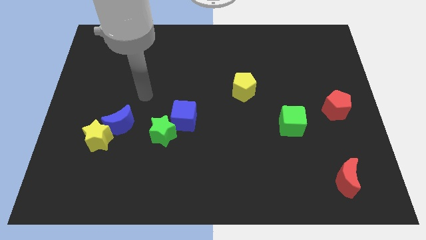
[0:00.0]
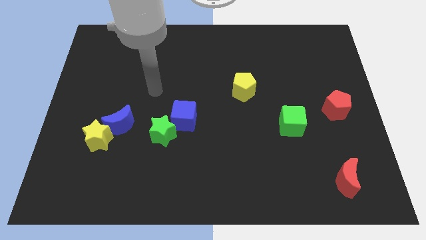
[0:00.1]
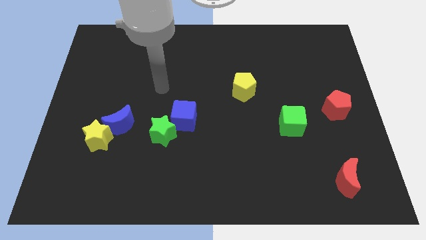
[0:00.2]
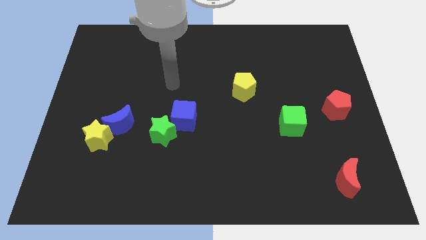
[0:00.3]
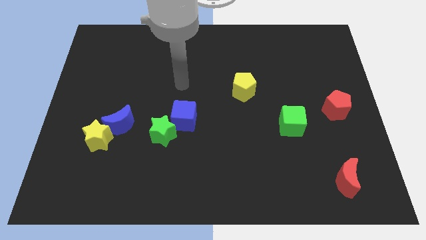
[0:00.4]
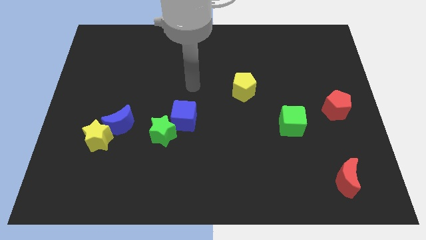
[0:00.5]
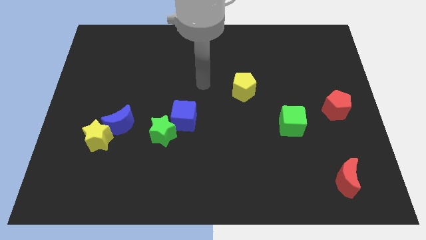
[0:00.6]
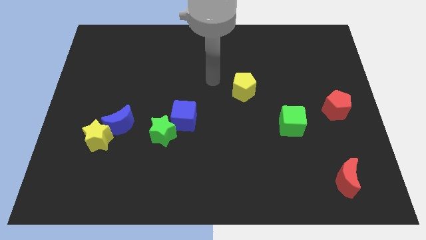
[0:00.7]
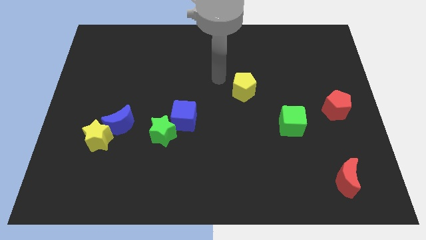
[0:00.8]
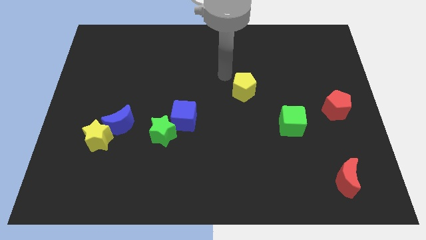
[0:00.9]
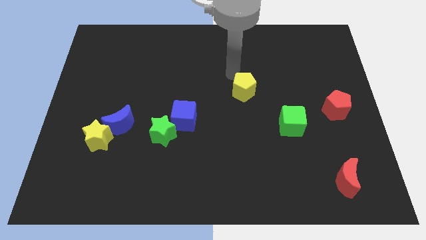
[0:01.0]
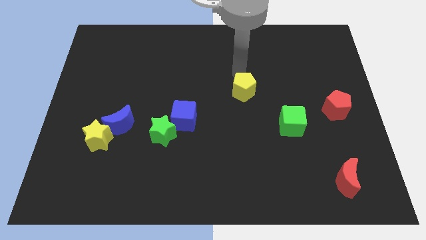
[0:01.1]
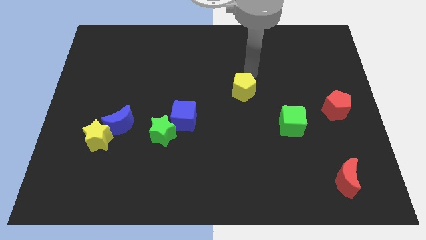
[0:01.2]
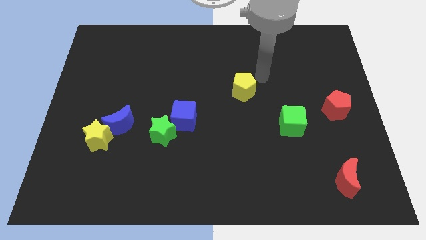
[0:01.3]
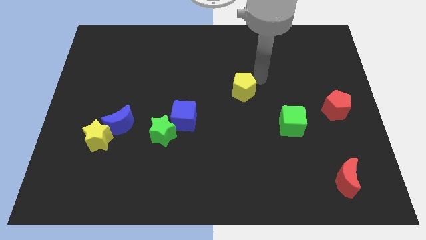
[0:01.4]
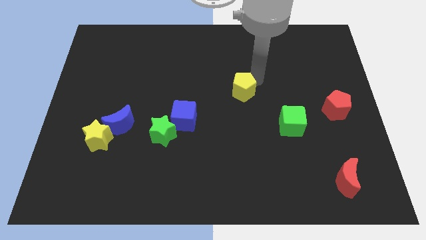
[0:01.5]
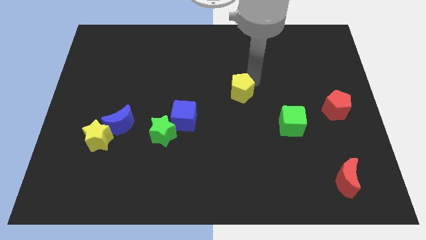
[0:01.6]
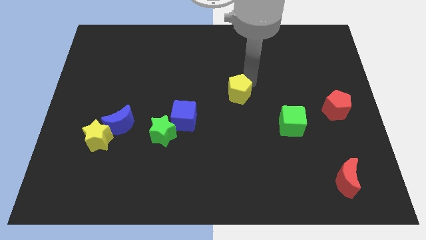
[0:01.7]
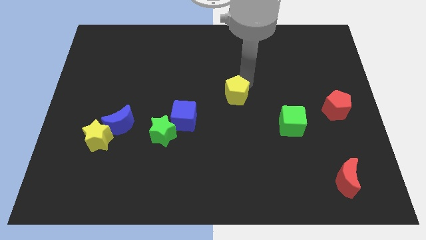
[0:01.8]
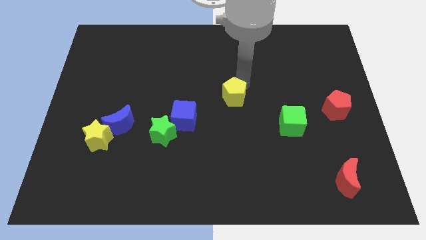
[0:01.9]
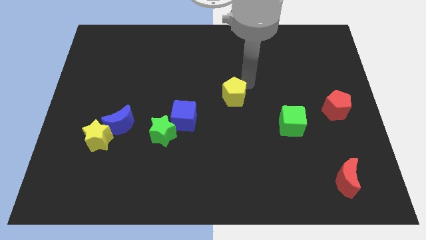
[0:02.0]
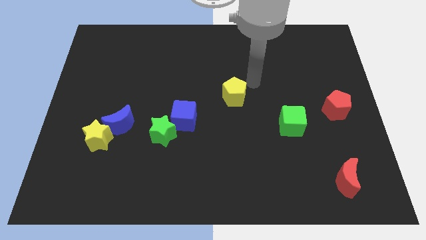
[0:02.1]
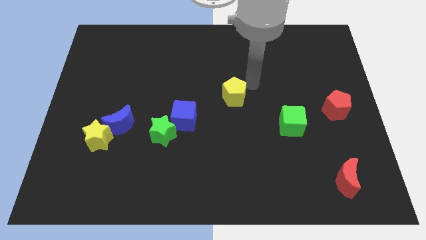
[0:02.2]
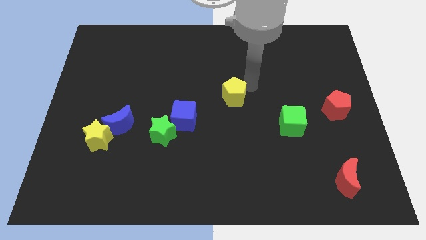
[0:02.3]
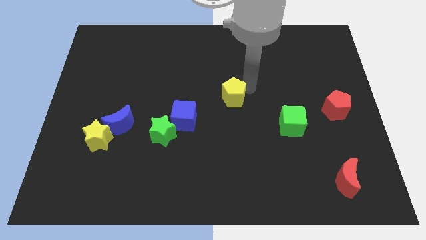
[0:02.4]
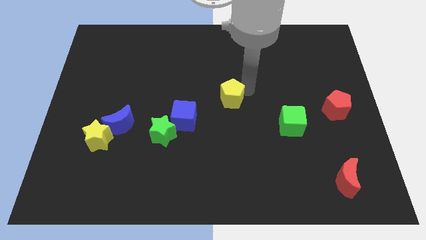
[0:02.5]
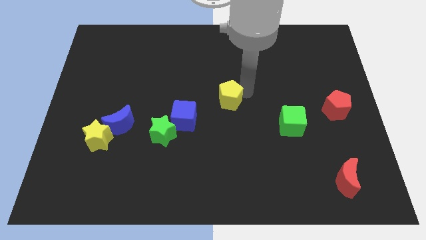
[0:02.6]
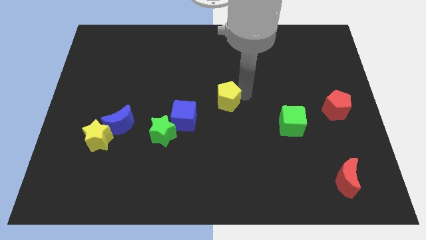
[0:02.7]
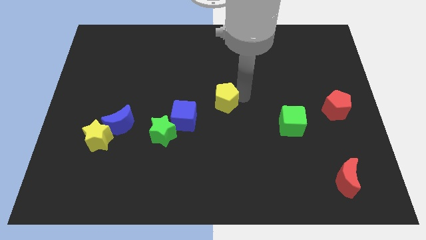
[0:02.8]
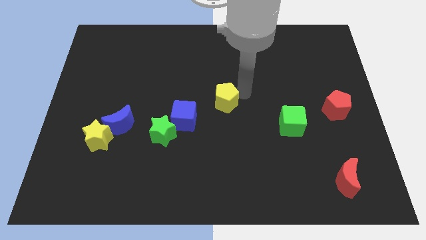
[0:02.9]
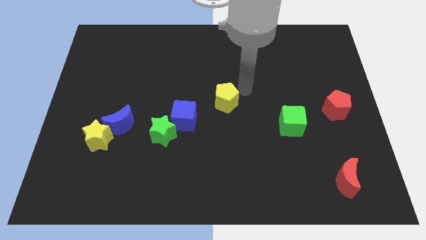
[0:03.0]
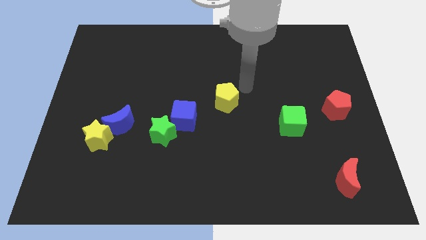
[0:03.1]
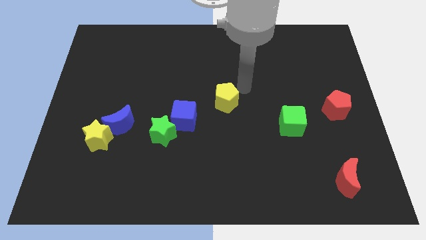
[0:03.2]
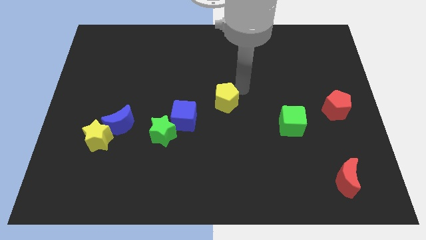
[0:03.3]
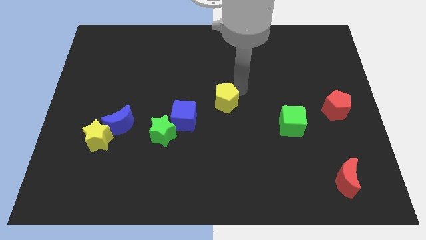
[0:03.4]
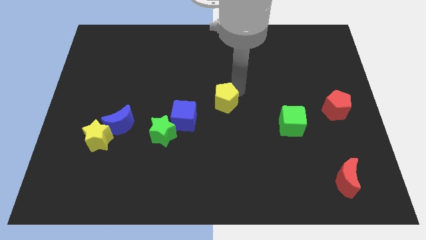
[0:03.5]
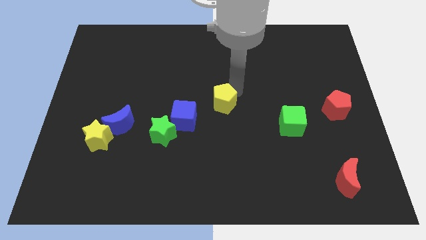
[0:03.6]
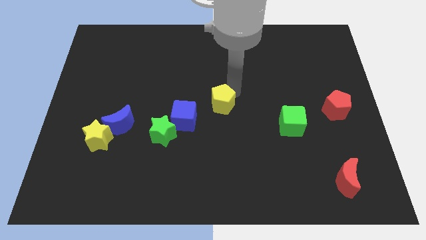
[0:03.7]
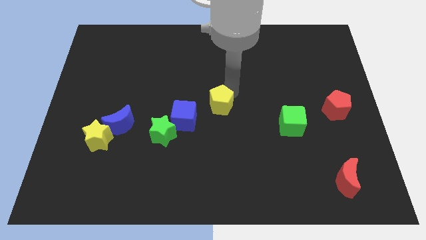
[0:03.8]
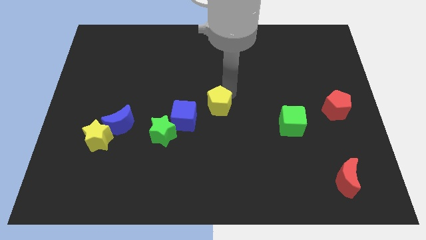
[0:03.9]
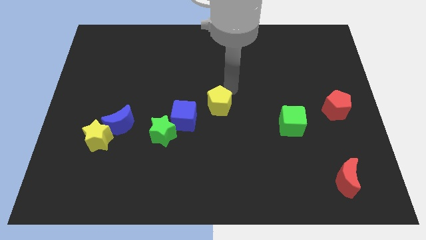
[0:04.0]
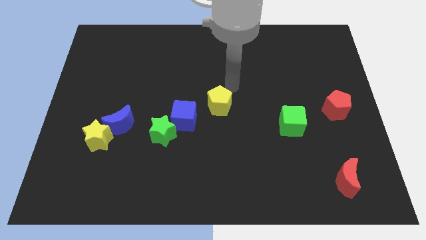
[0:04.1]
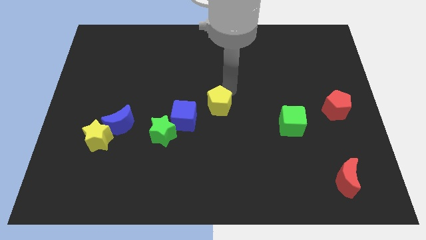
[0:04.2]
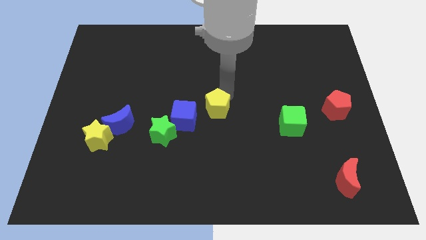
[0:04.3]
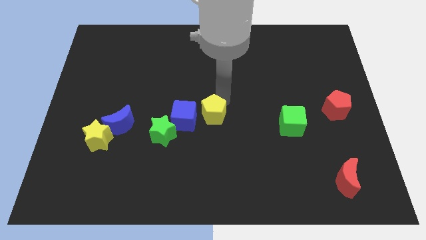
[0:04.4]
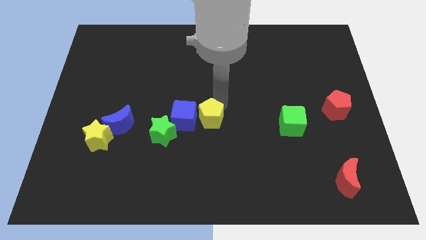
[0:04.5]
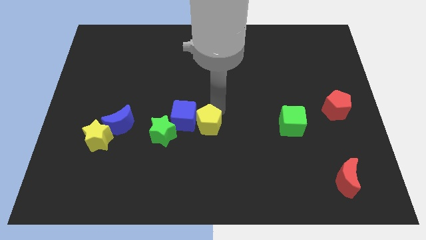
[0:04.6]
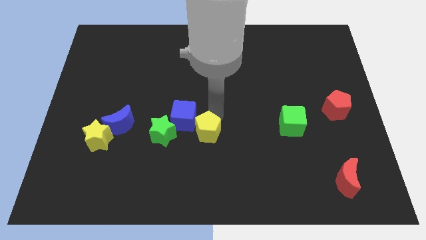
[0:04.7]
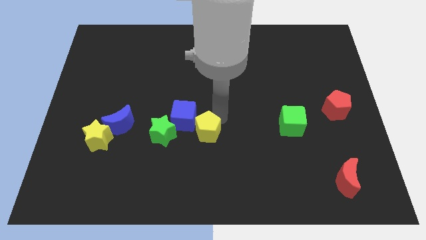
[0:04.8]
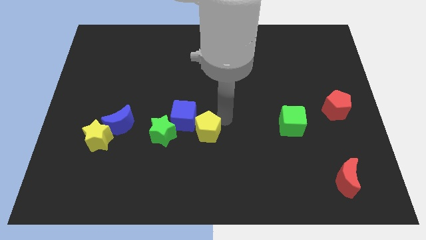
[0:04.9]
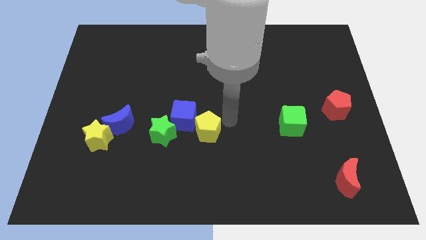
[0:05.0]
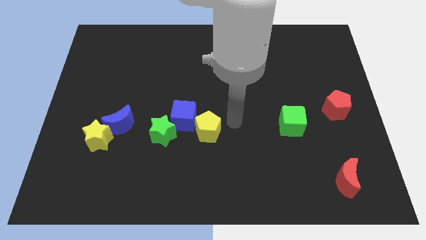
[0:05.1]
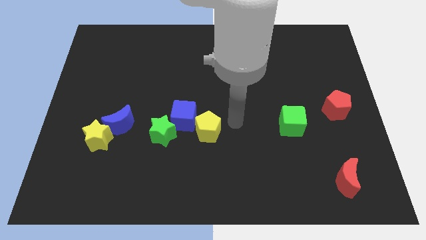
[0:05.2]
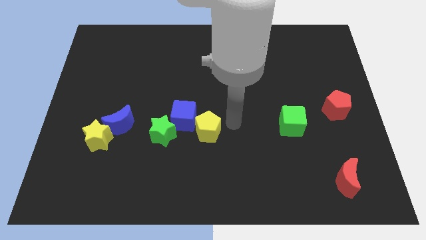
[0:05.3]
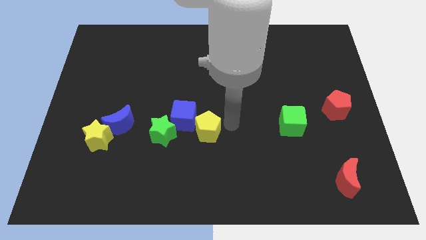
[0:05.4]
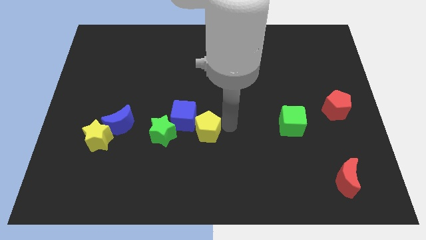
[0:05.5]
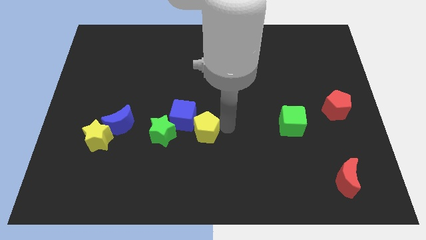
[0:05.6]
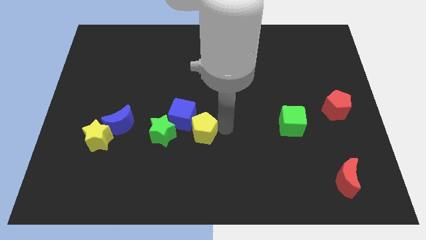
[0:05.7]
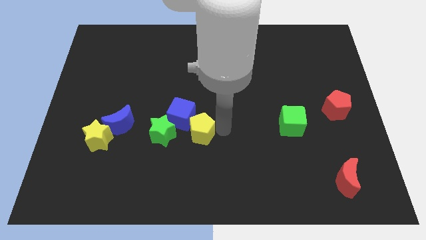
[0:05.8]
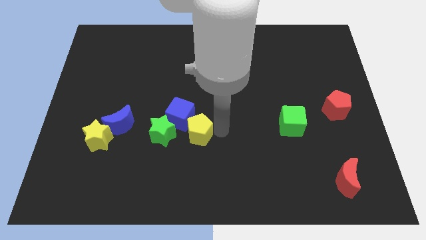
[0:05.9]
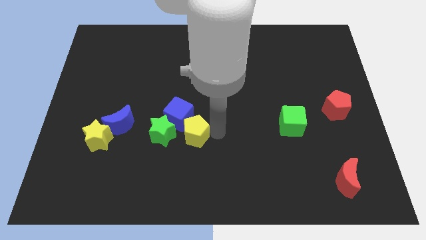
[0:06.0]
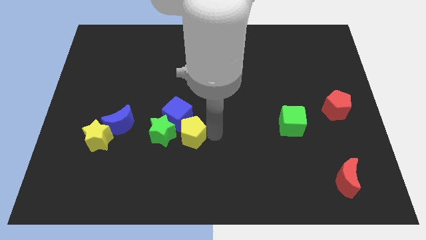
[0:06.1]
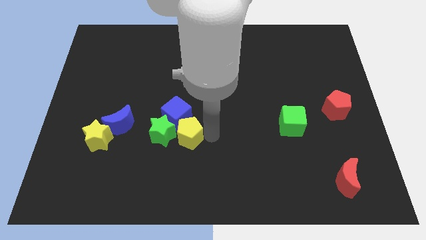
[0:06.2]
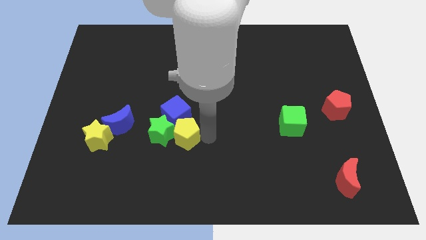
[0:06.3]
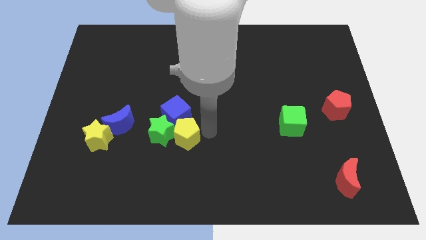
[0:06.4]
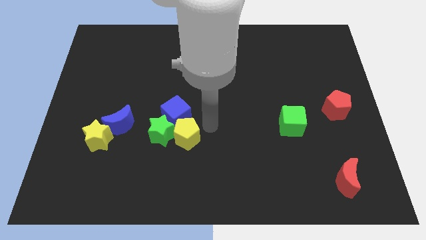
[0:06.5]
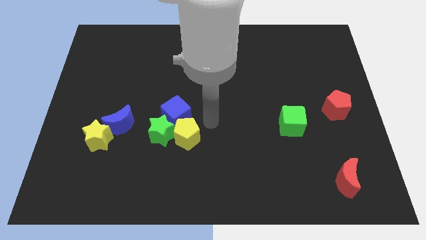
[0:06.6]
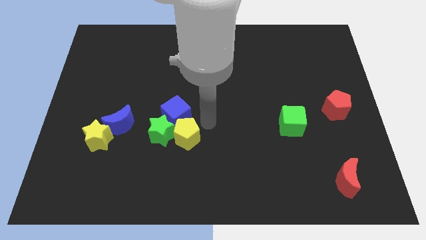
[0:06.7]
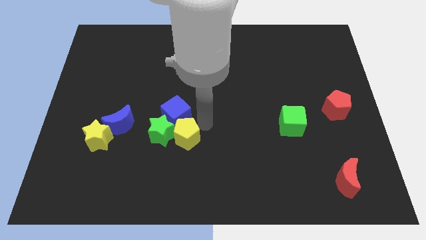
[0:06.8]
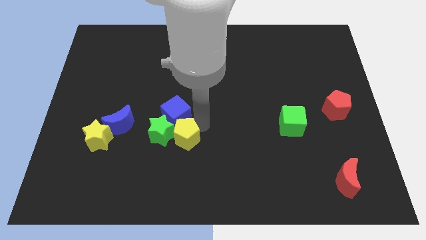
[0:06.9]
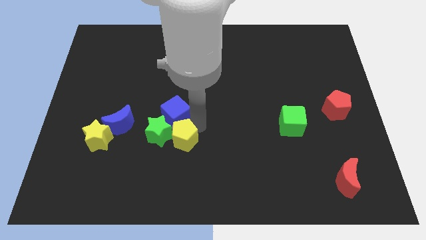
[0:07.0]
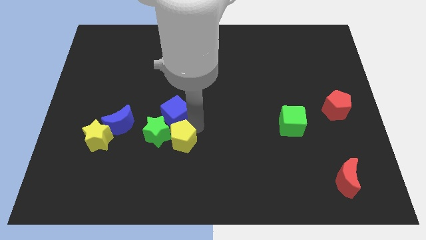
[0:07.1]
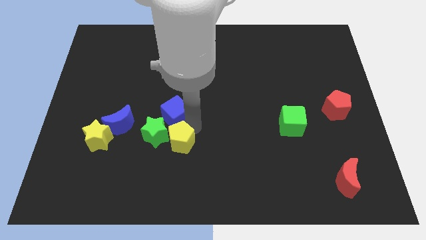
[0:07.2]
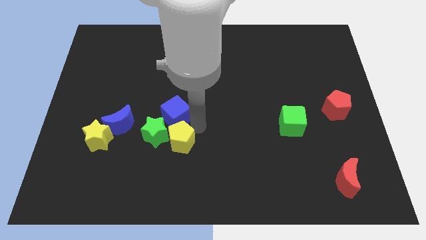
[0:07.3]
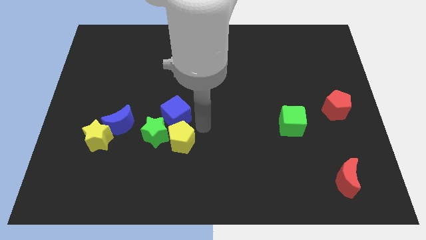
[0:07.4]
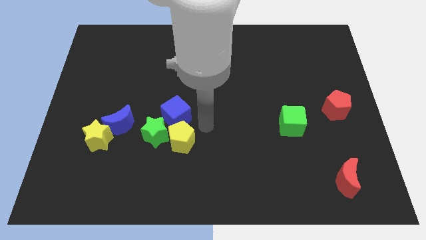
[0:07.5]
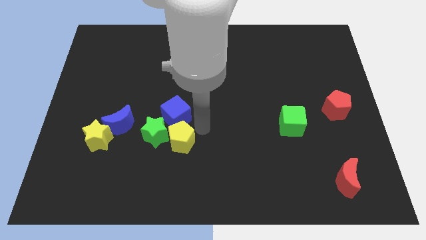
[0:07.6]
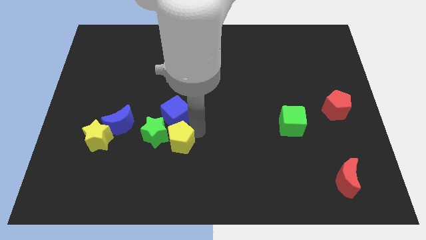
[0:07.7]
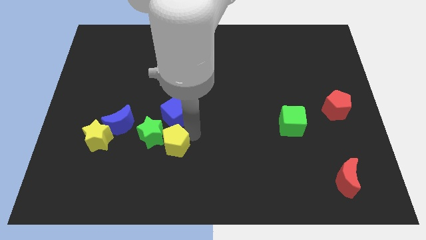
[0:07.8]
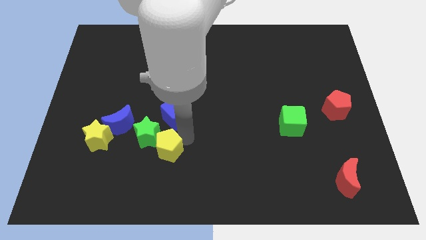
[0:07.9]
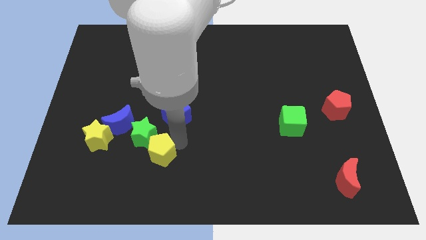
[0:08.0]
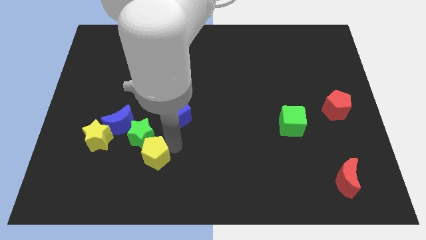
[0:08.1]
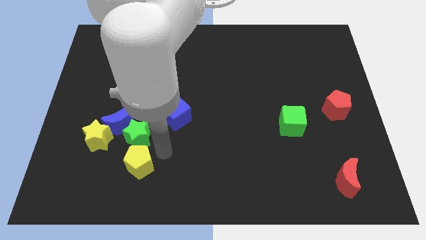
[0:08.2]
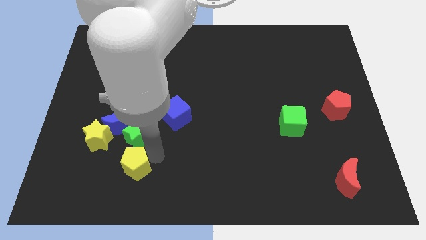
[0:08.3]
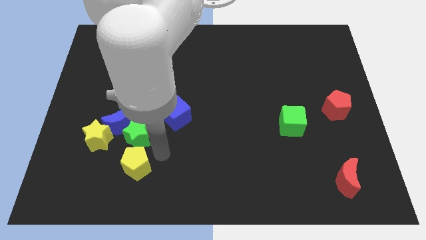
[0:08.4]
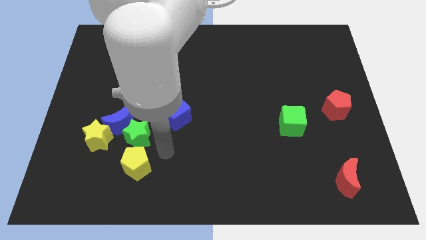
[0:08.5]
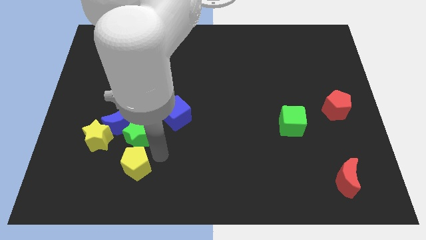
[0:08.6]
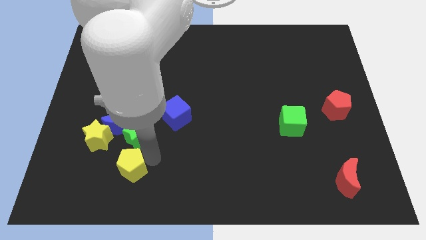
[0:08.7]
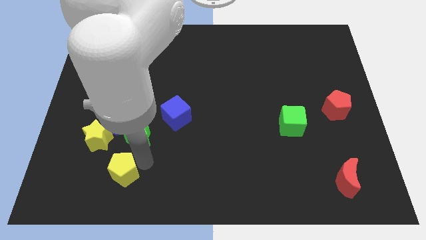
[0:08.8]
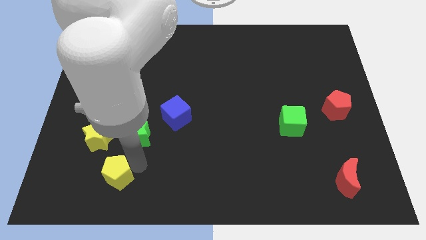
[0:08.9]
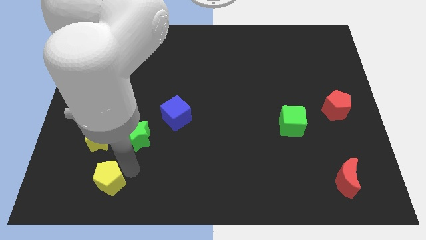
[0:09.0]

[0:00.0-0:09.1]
slide the yellow pentagon to the bottom side of the yellow star
